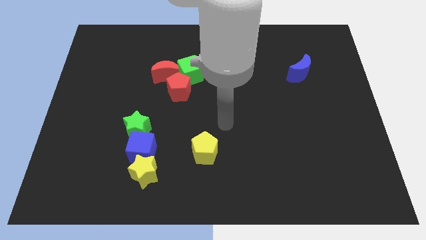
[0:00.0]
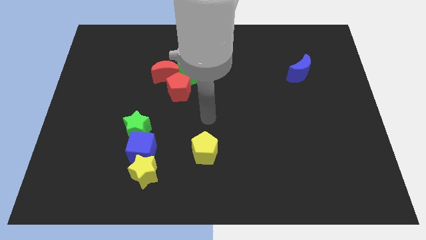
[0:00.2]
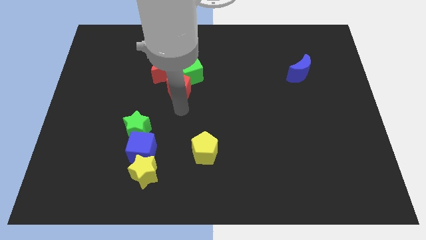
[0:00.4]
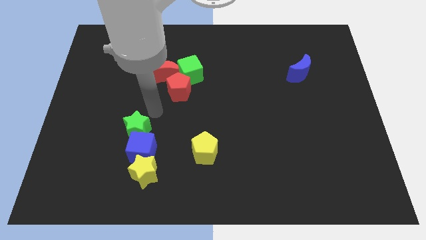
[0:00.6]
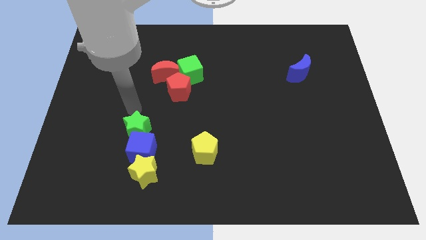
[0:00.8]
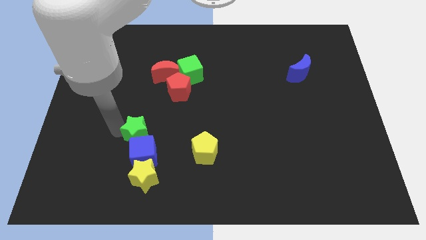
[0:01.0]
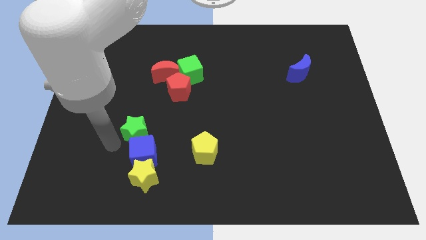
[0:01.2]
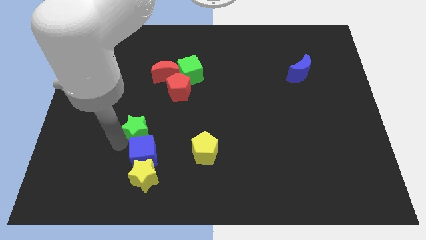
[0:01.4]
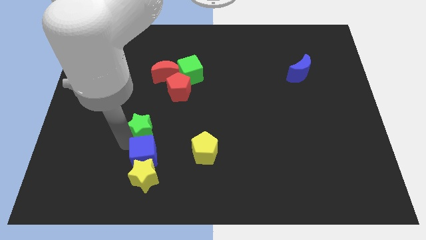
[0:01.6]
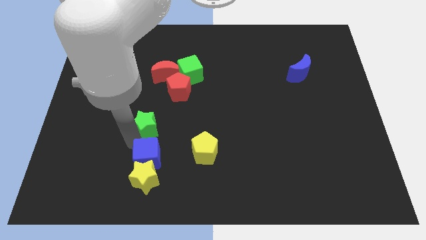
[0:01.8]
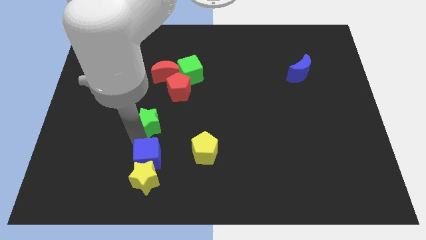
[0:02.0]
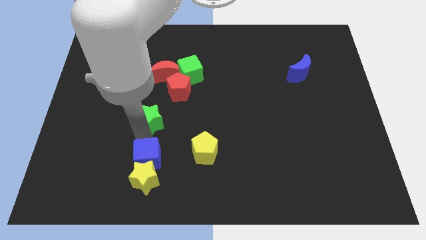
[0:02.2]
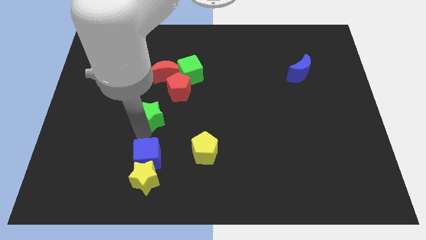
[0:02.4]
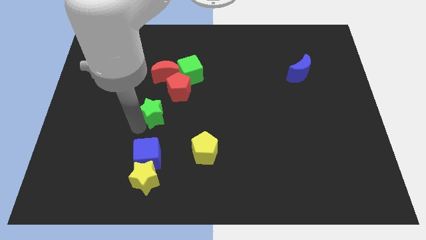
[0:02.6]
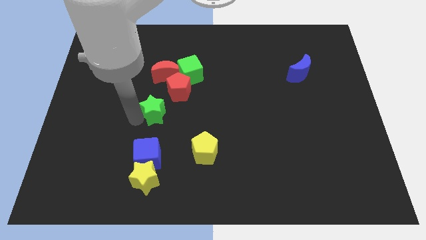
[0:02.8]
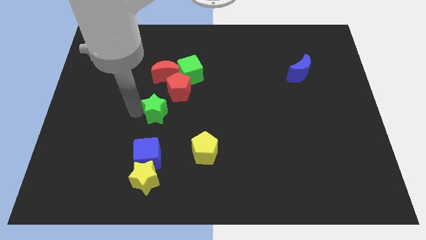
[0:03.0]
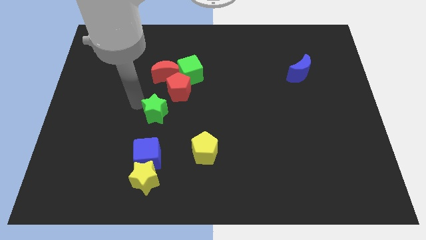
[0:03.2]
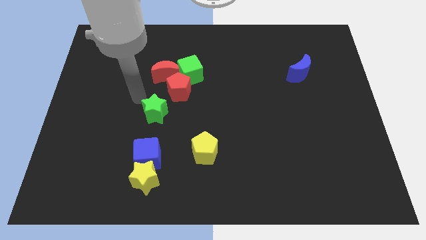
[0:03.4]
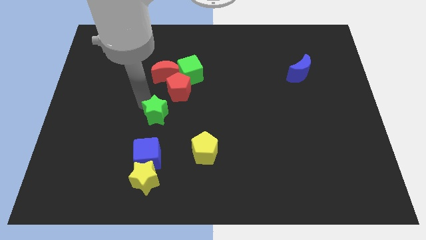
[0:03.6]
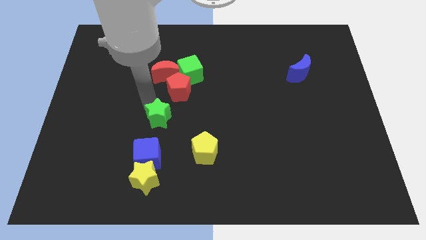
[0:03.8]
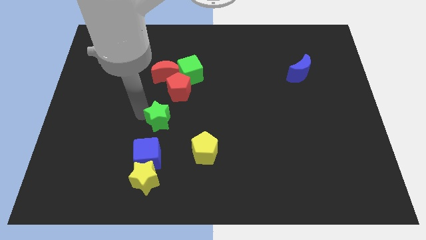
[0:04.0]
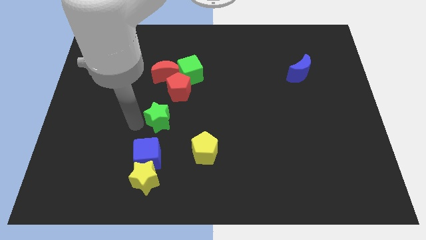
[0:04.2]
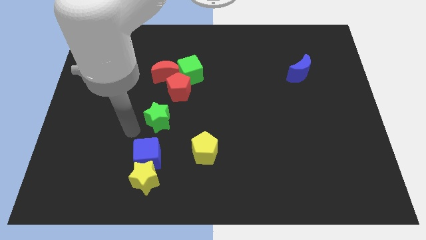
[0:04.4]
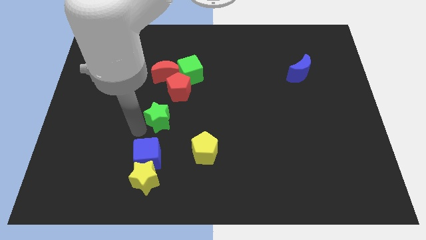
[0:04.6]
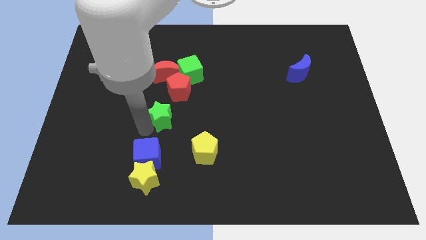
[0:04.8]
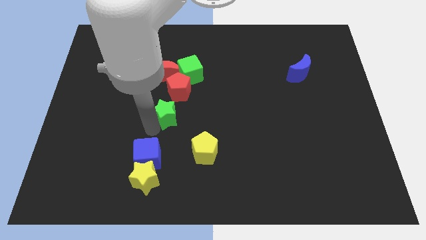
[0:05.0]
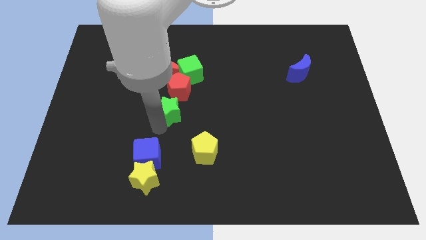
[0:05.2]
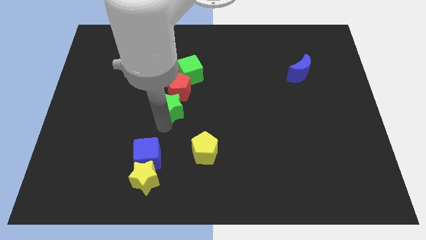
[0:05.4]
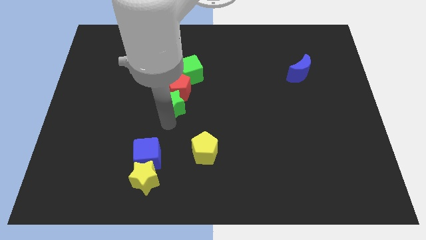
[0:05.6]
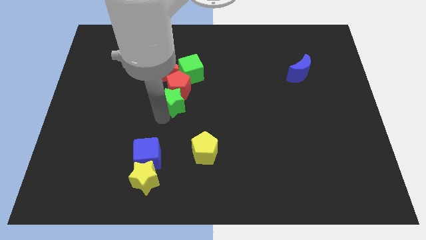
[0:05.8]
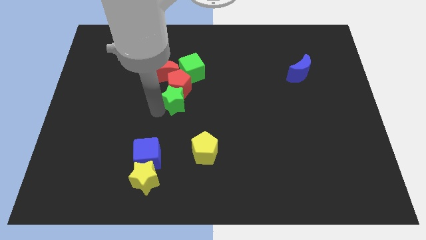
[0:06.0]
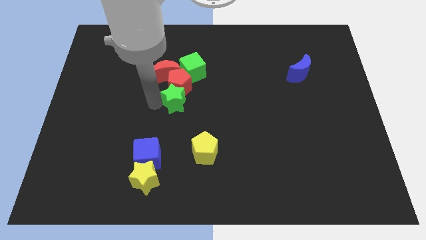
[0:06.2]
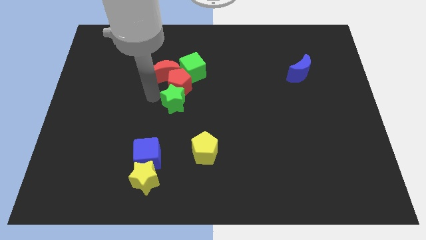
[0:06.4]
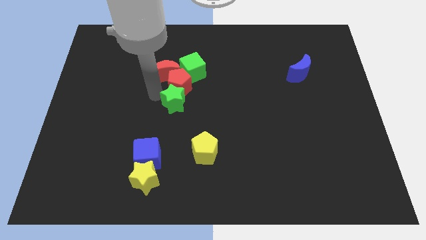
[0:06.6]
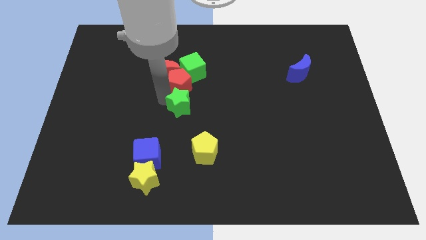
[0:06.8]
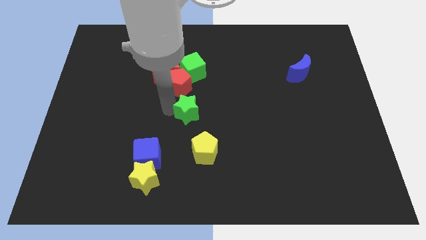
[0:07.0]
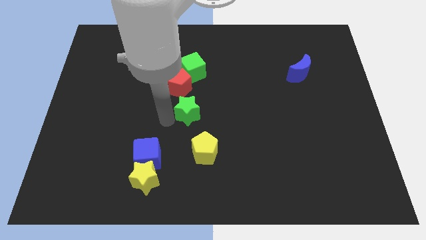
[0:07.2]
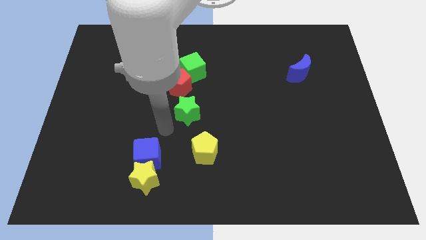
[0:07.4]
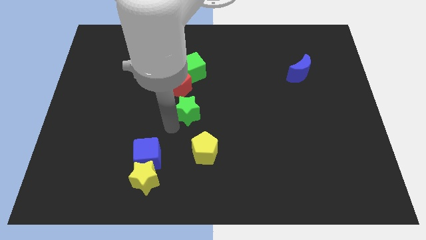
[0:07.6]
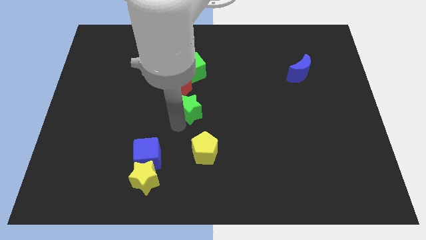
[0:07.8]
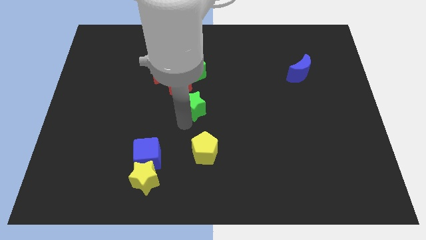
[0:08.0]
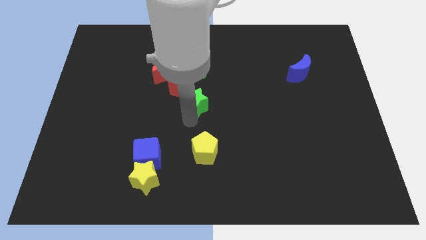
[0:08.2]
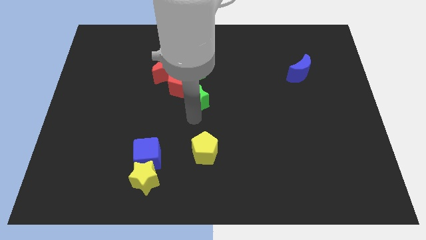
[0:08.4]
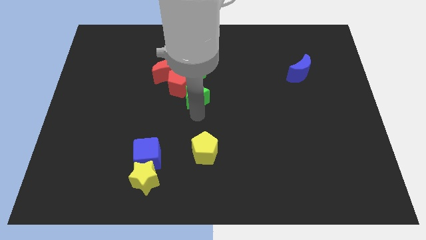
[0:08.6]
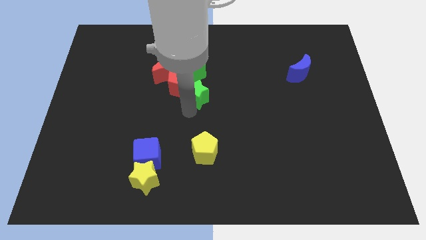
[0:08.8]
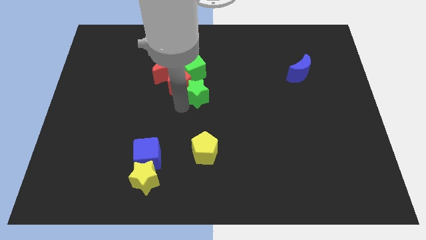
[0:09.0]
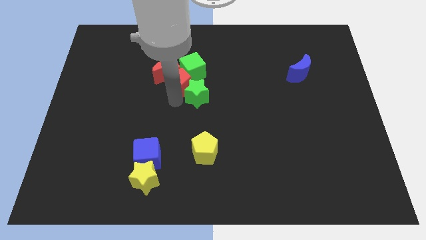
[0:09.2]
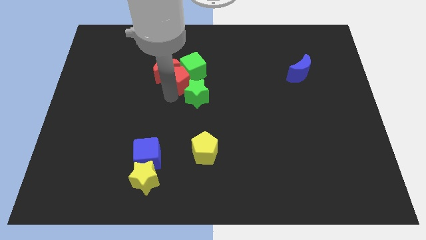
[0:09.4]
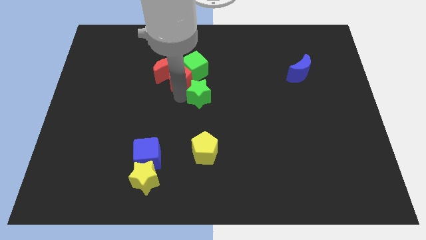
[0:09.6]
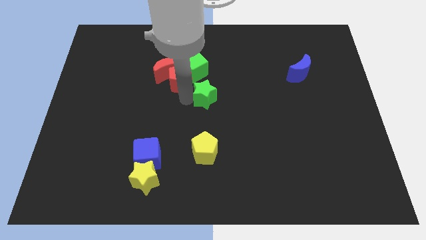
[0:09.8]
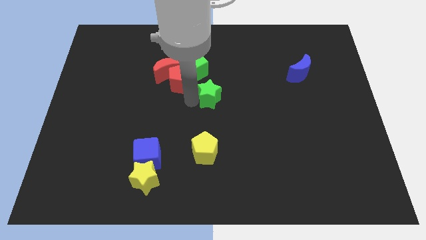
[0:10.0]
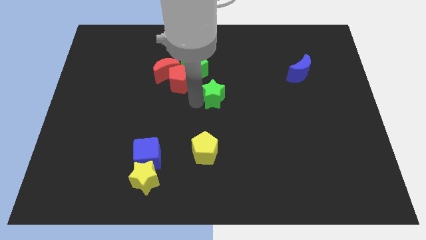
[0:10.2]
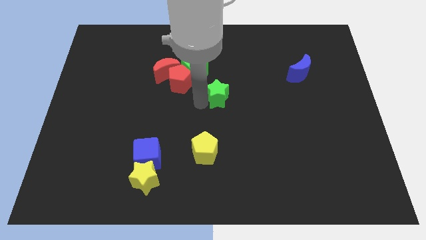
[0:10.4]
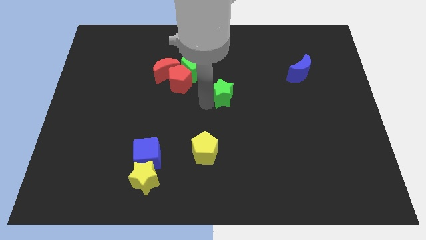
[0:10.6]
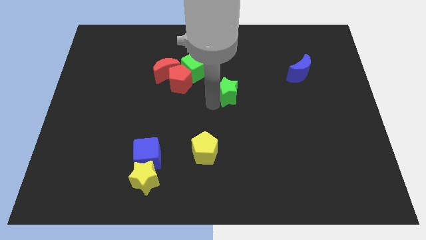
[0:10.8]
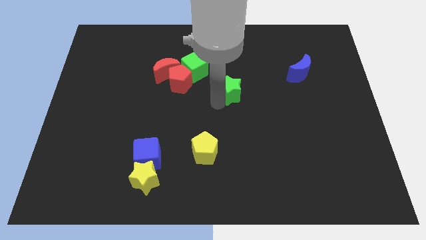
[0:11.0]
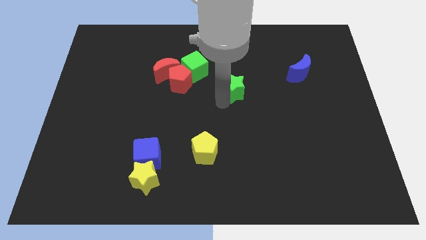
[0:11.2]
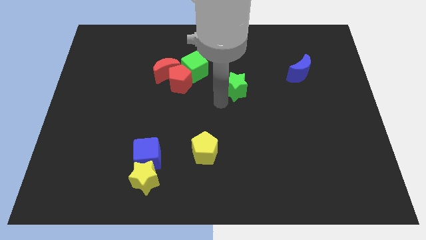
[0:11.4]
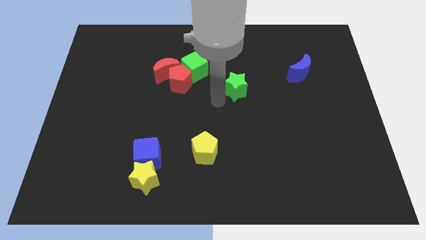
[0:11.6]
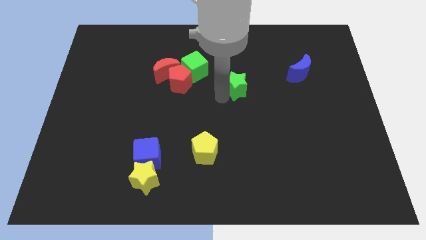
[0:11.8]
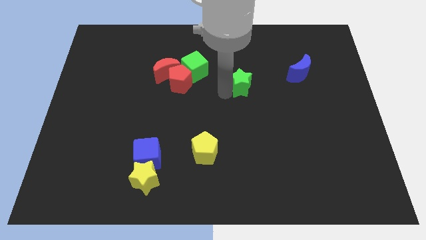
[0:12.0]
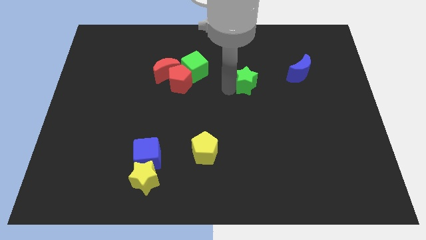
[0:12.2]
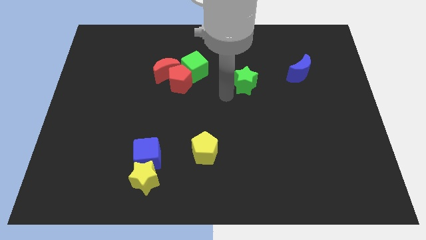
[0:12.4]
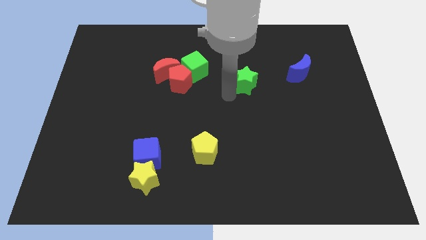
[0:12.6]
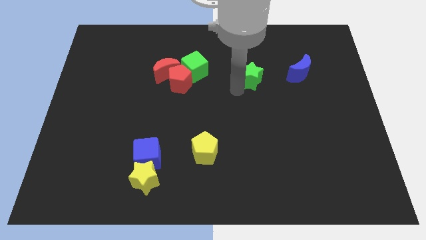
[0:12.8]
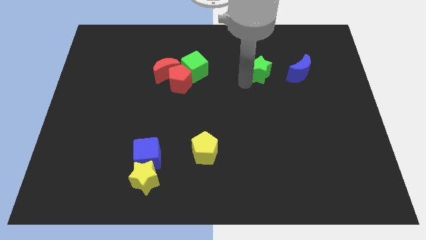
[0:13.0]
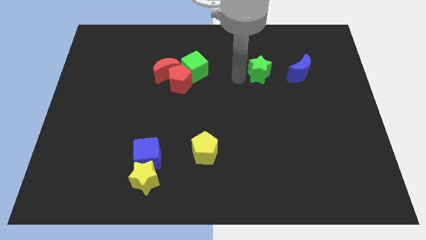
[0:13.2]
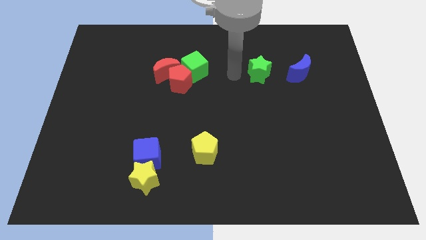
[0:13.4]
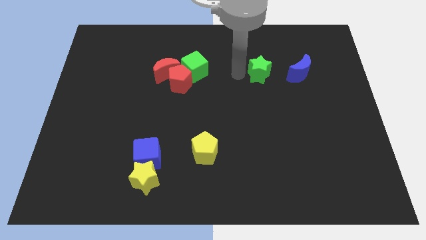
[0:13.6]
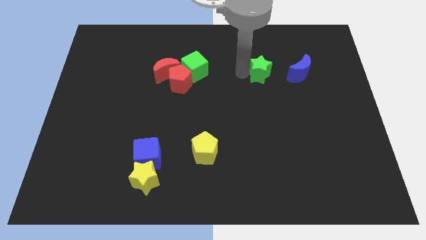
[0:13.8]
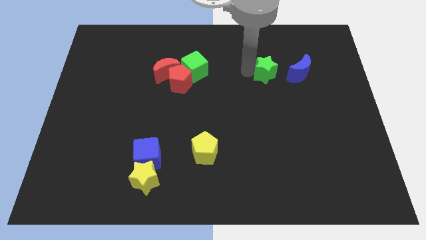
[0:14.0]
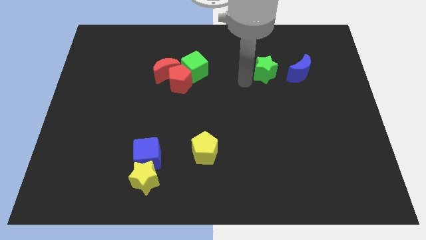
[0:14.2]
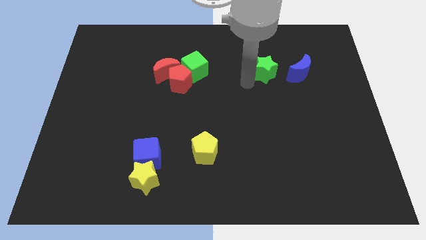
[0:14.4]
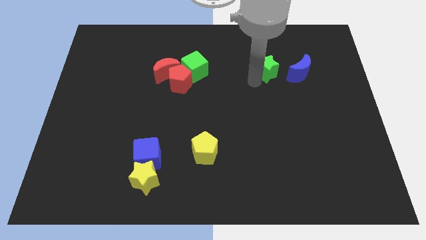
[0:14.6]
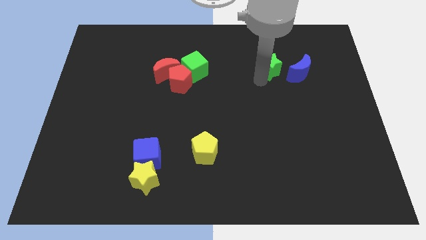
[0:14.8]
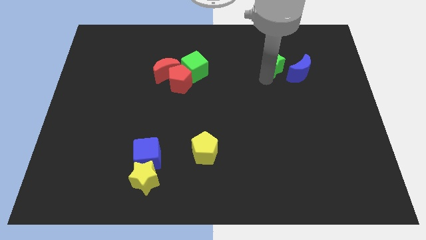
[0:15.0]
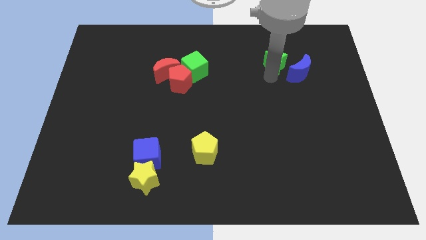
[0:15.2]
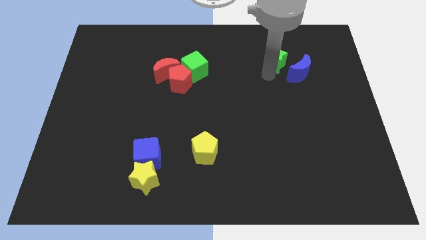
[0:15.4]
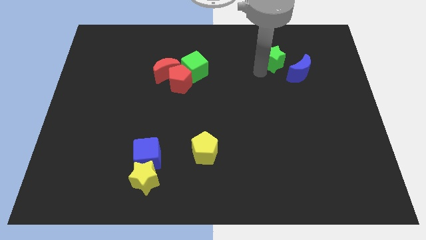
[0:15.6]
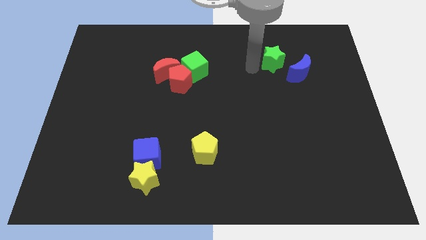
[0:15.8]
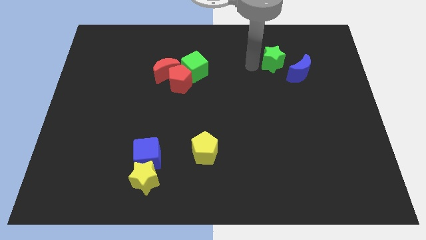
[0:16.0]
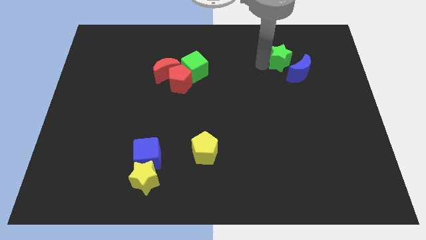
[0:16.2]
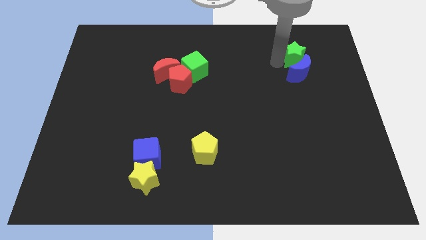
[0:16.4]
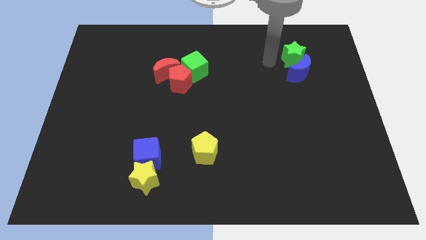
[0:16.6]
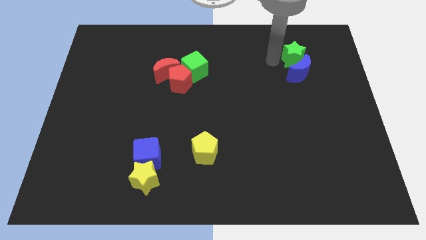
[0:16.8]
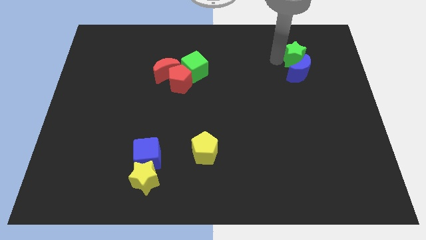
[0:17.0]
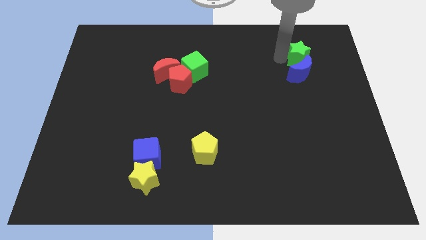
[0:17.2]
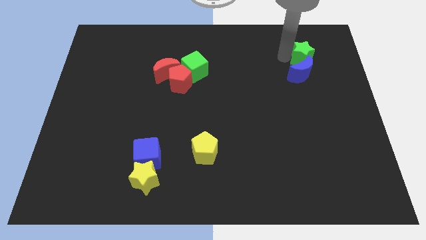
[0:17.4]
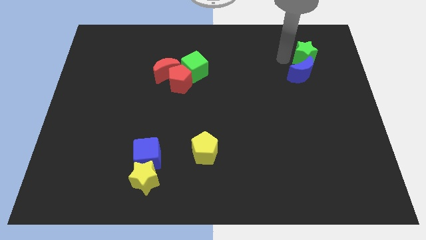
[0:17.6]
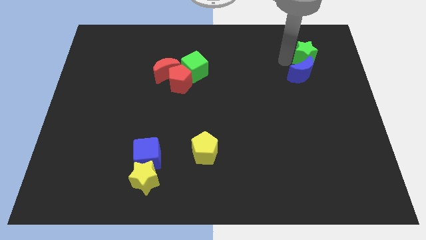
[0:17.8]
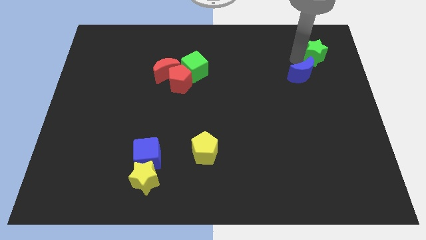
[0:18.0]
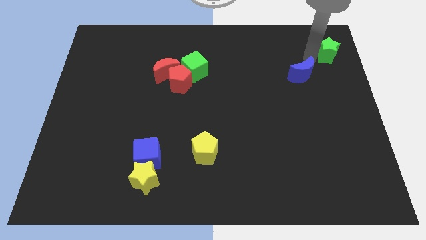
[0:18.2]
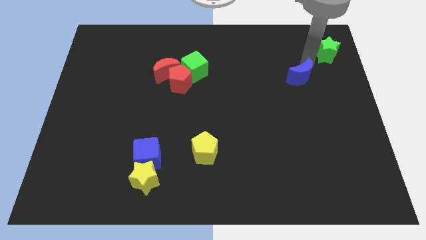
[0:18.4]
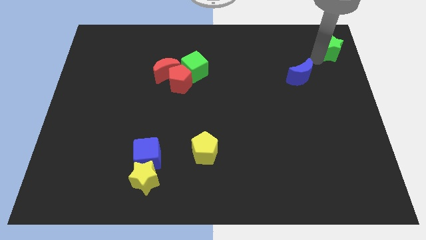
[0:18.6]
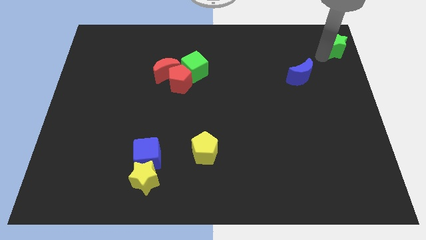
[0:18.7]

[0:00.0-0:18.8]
slide the green star to the top right of the board
